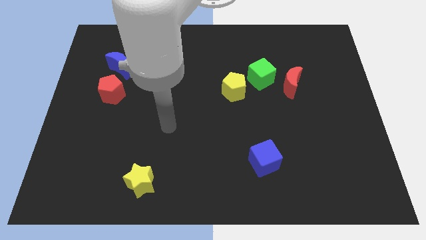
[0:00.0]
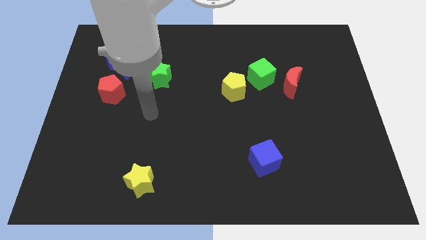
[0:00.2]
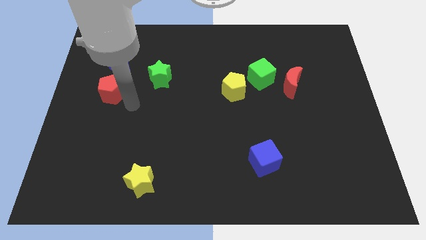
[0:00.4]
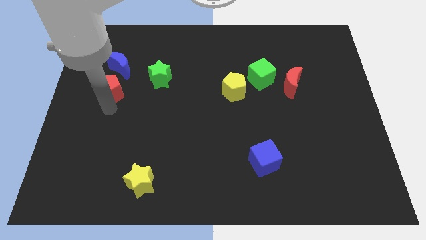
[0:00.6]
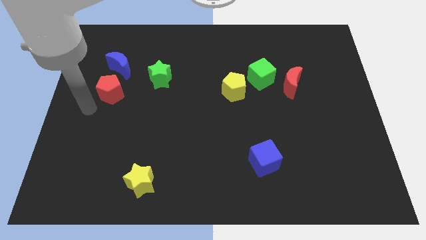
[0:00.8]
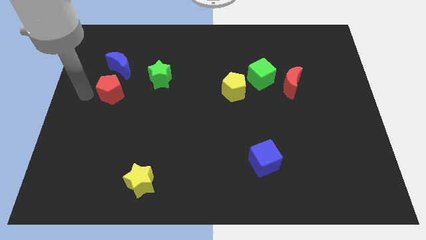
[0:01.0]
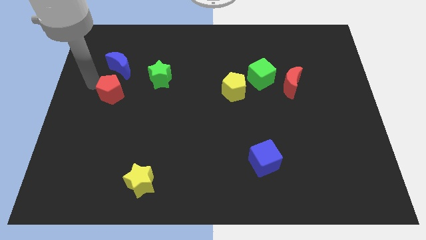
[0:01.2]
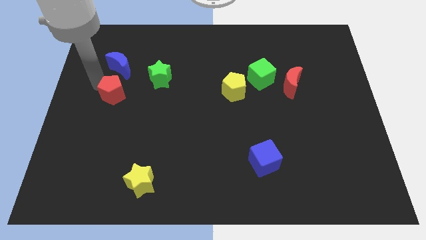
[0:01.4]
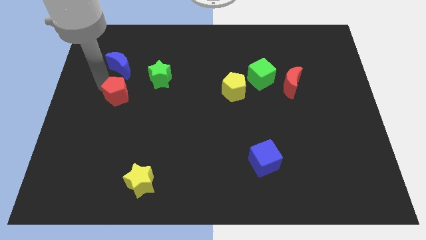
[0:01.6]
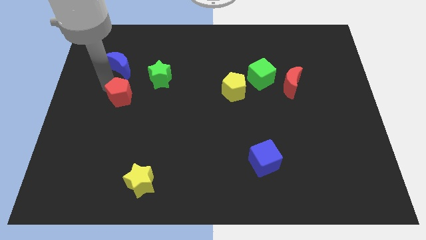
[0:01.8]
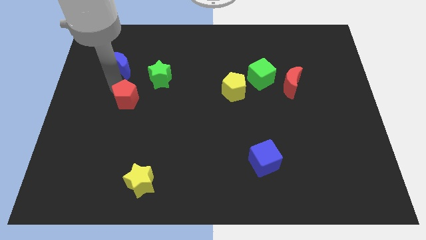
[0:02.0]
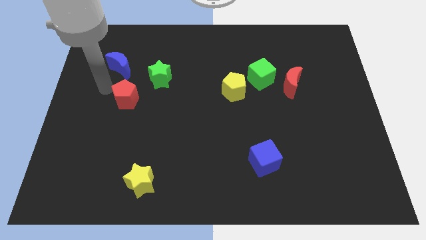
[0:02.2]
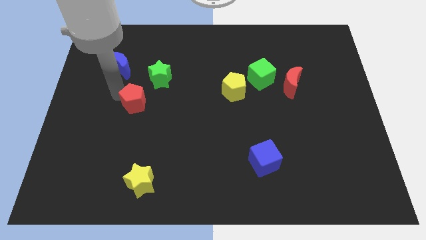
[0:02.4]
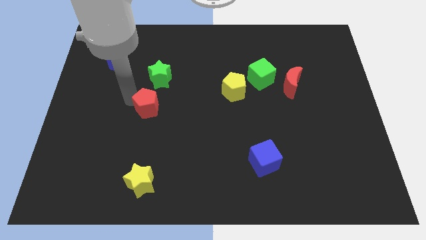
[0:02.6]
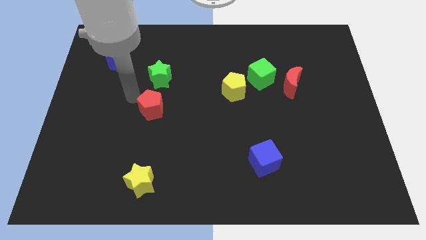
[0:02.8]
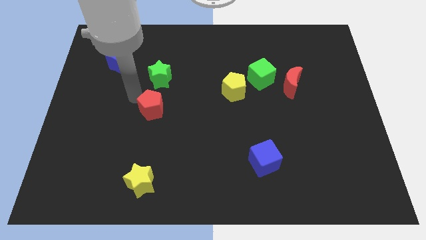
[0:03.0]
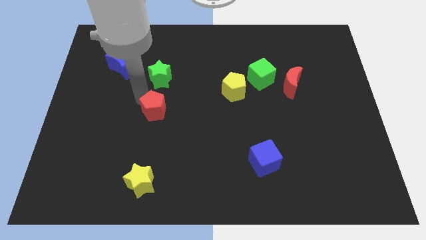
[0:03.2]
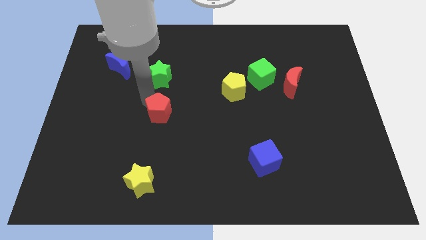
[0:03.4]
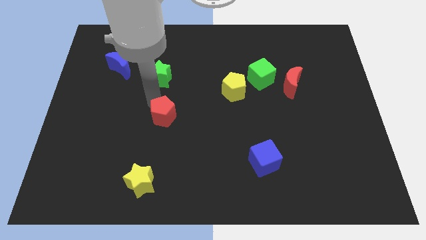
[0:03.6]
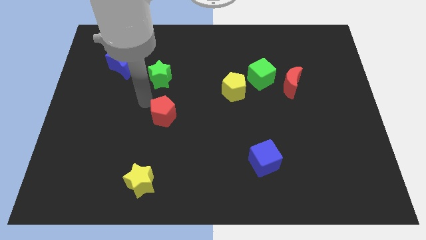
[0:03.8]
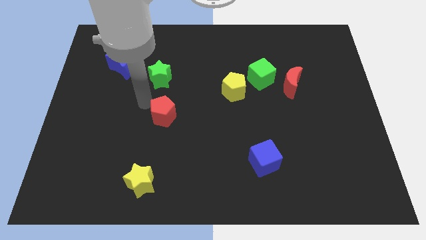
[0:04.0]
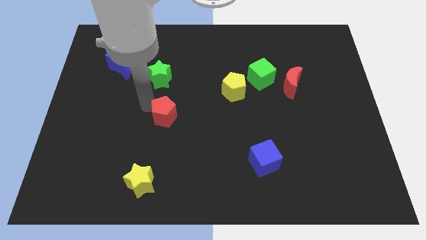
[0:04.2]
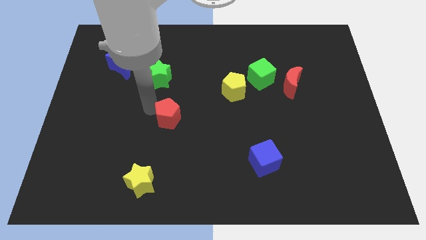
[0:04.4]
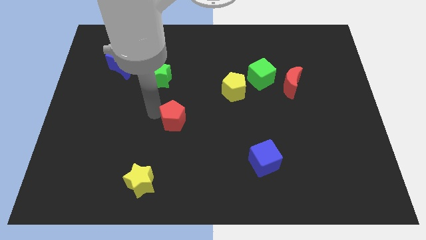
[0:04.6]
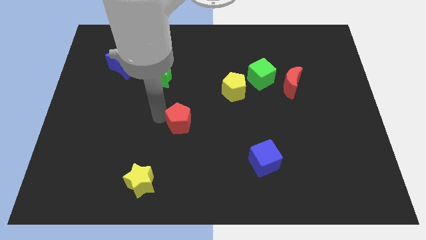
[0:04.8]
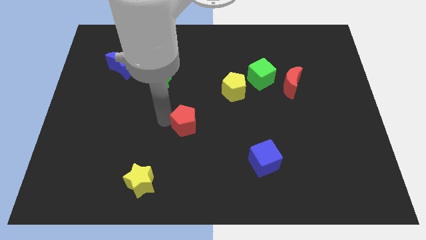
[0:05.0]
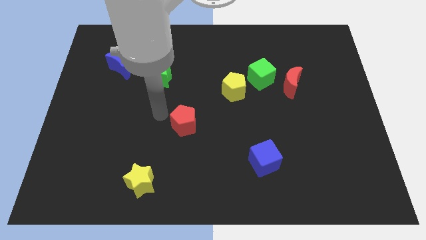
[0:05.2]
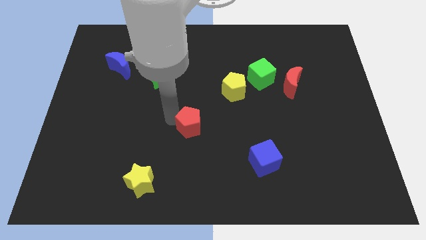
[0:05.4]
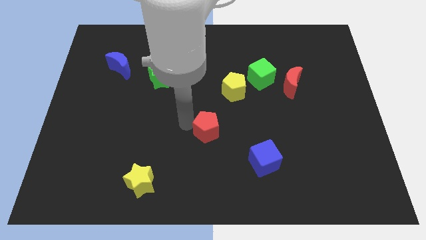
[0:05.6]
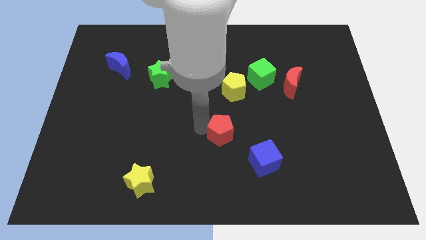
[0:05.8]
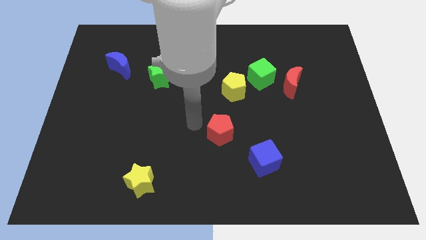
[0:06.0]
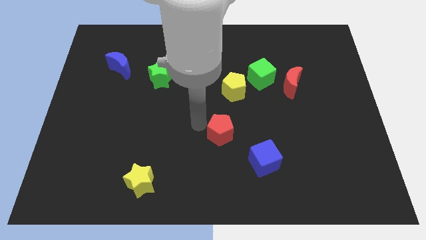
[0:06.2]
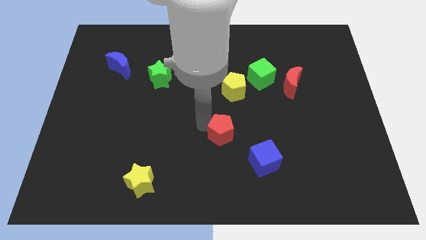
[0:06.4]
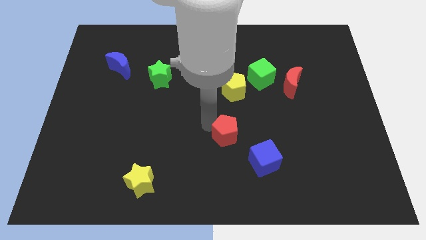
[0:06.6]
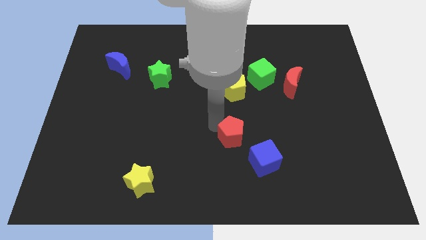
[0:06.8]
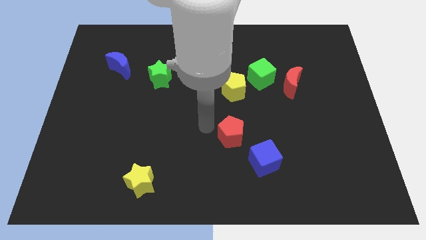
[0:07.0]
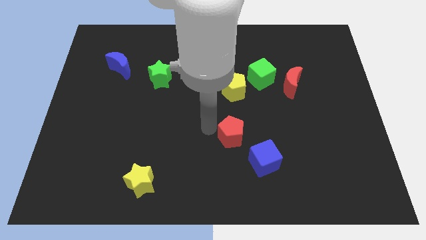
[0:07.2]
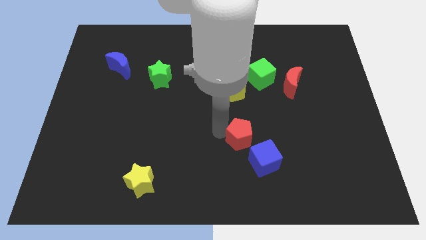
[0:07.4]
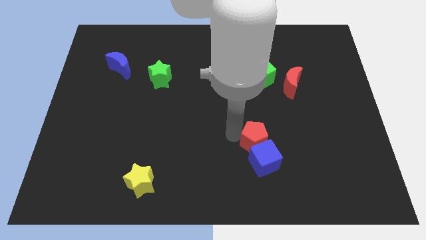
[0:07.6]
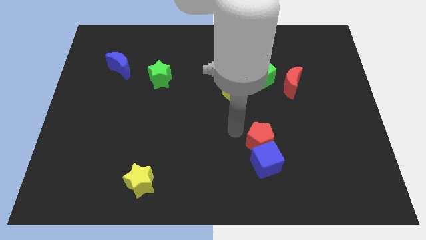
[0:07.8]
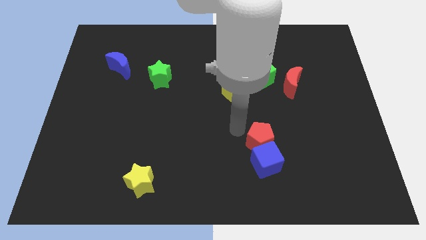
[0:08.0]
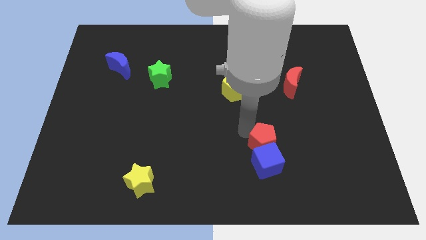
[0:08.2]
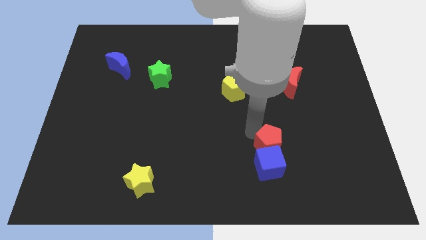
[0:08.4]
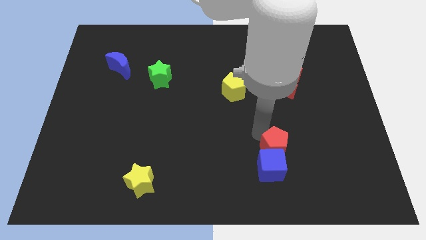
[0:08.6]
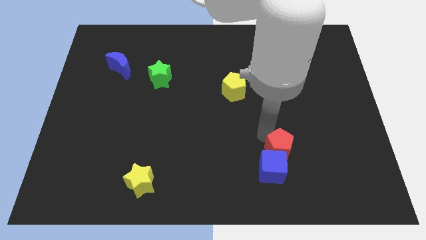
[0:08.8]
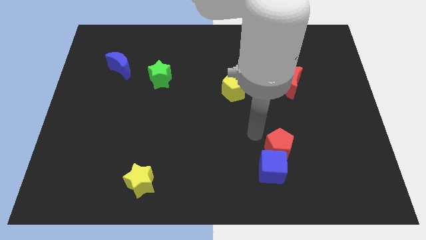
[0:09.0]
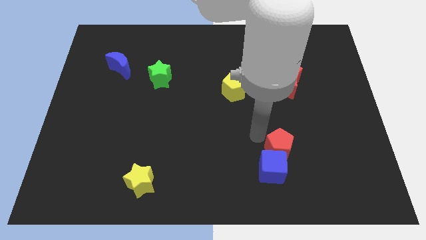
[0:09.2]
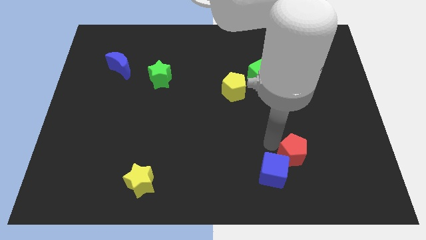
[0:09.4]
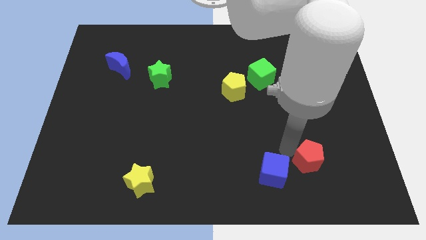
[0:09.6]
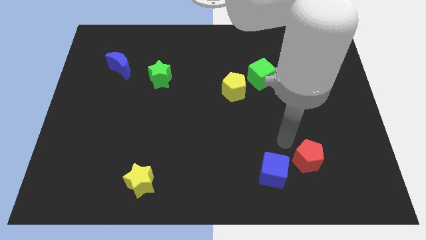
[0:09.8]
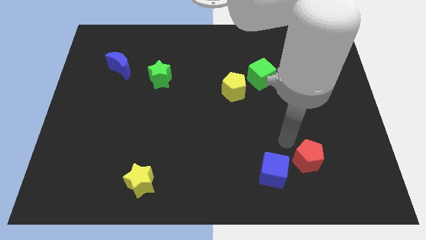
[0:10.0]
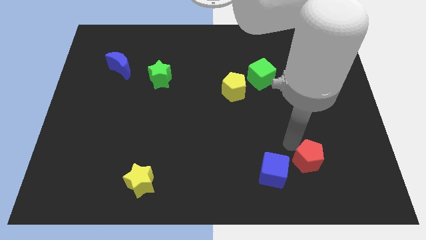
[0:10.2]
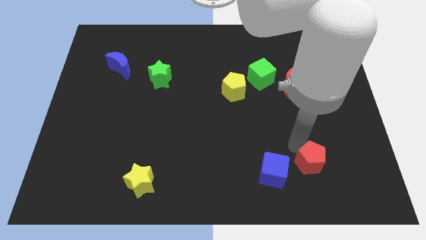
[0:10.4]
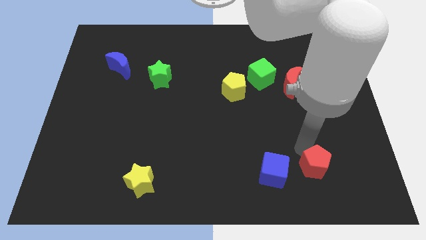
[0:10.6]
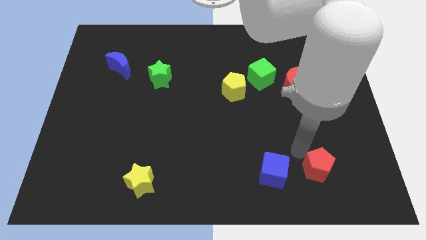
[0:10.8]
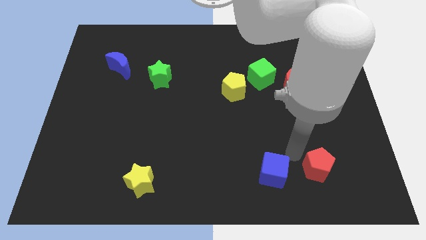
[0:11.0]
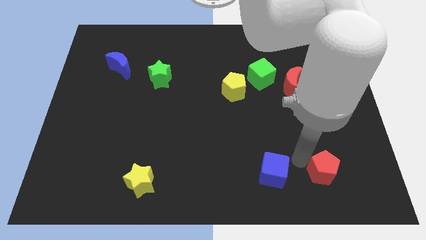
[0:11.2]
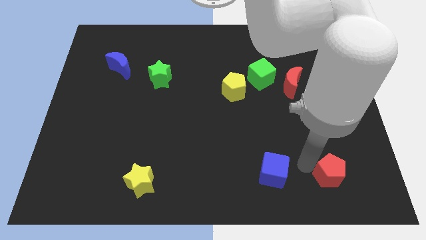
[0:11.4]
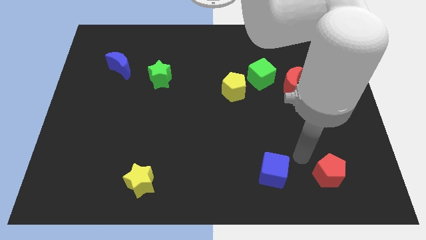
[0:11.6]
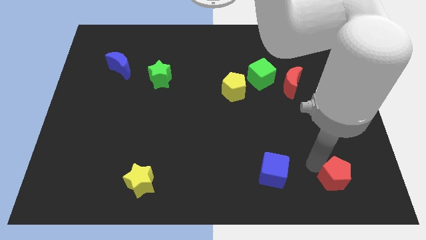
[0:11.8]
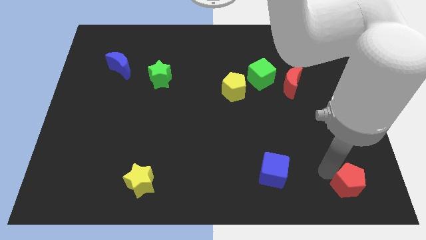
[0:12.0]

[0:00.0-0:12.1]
move the red pentagon to the bottom right
